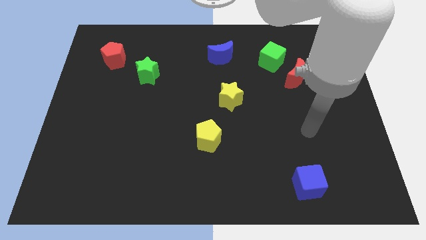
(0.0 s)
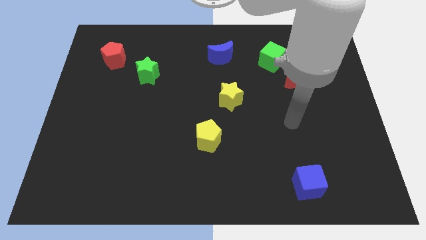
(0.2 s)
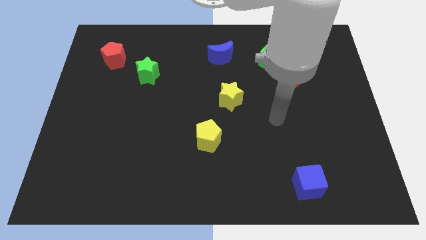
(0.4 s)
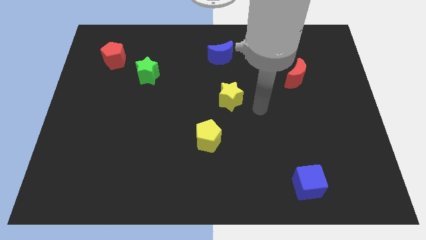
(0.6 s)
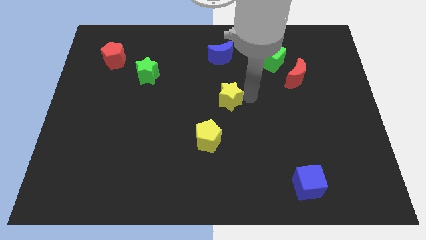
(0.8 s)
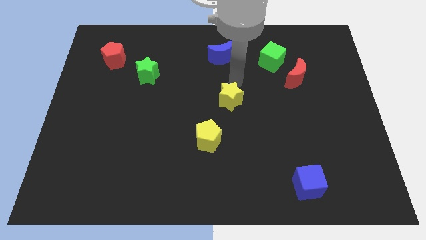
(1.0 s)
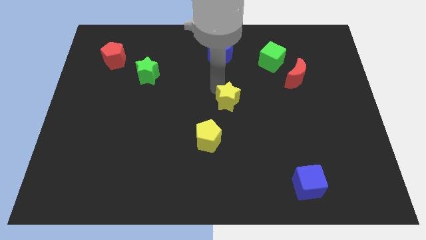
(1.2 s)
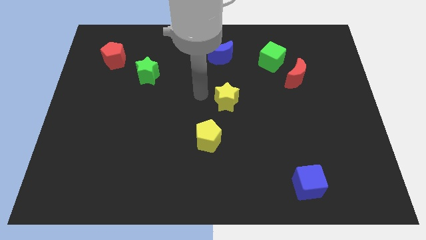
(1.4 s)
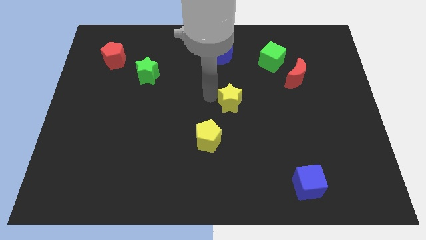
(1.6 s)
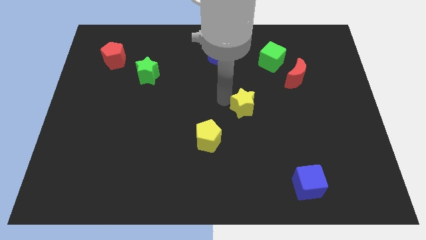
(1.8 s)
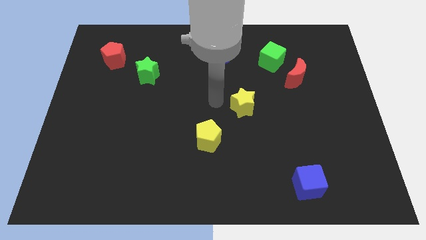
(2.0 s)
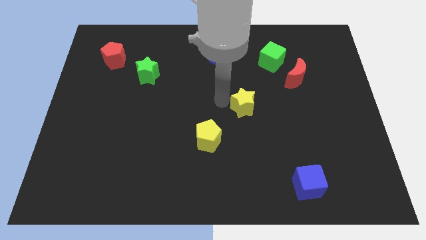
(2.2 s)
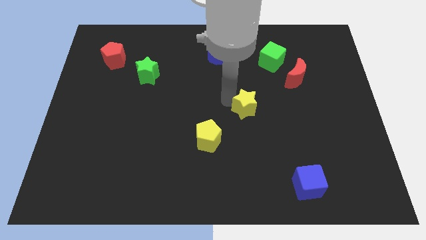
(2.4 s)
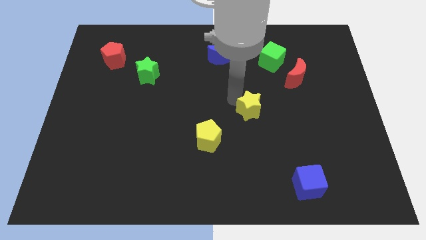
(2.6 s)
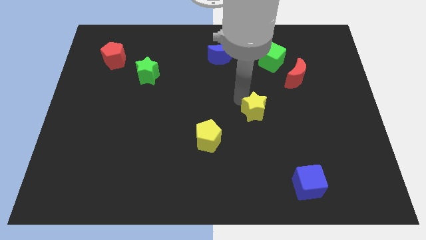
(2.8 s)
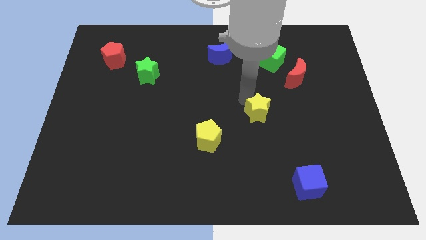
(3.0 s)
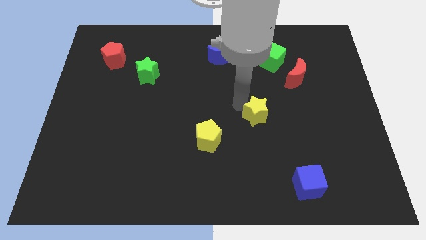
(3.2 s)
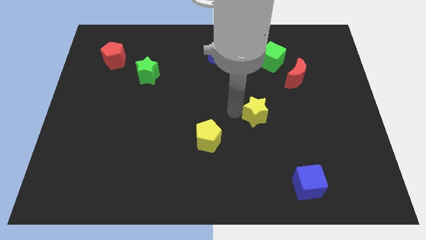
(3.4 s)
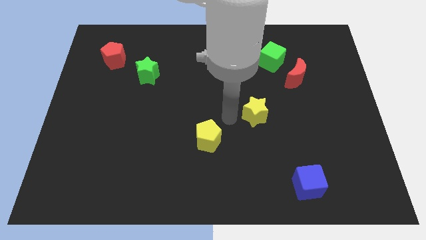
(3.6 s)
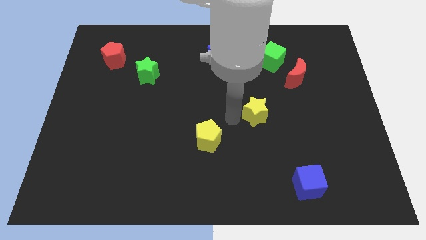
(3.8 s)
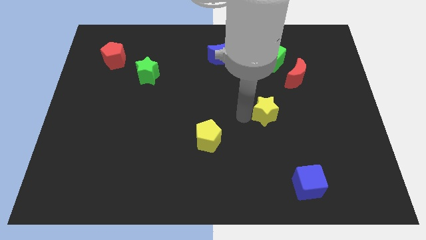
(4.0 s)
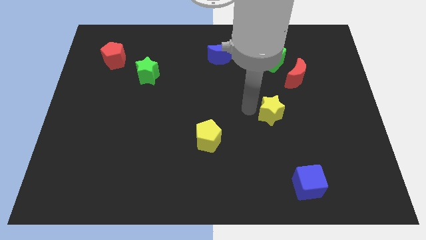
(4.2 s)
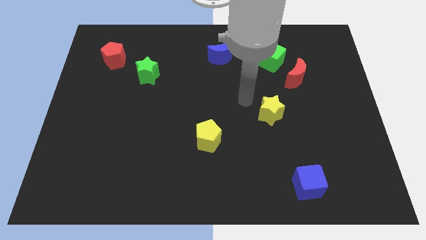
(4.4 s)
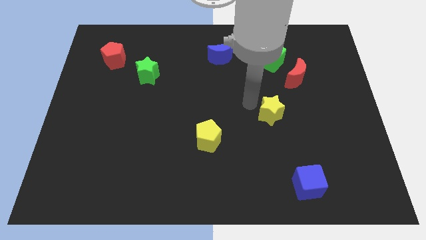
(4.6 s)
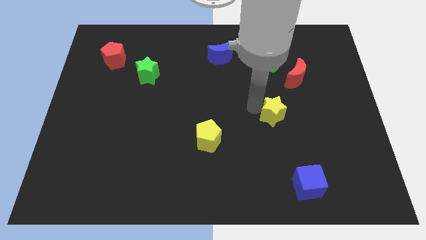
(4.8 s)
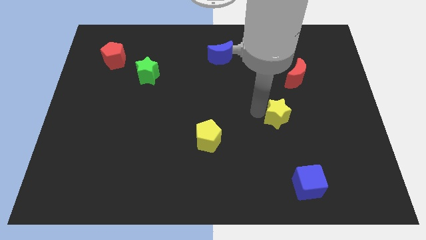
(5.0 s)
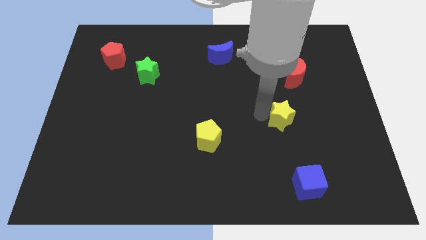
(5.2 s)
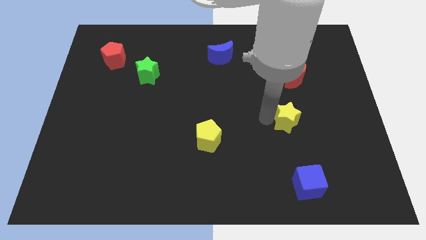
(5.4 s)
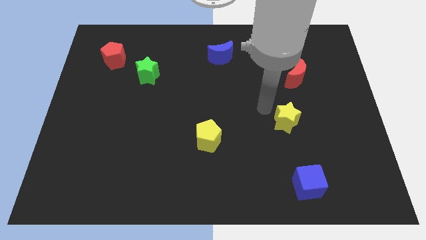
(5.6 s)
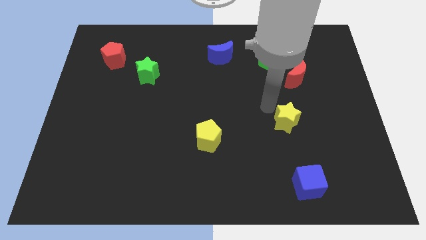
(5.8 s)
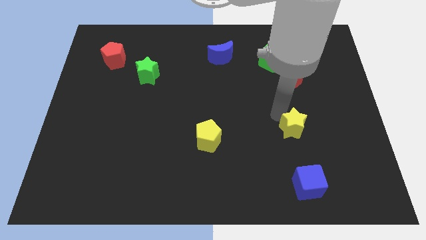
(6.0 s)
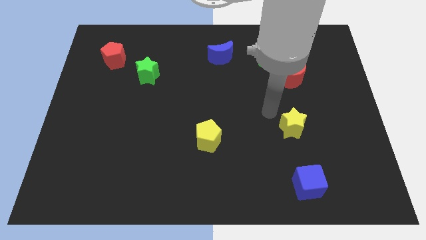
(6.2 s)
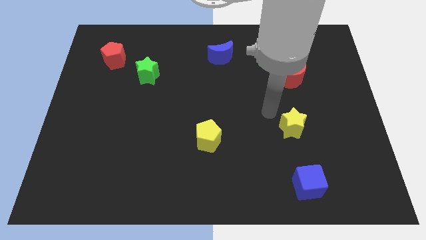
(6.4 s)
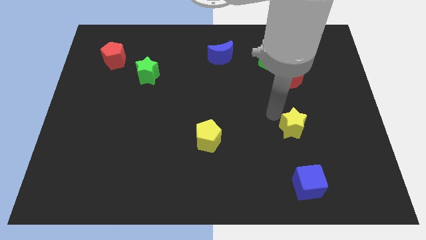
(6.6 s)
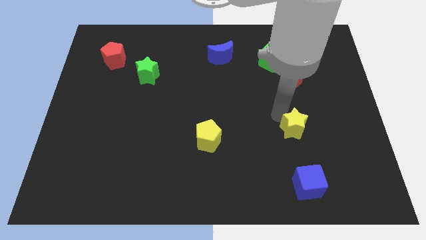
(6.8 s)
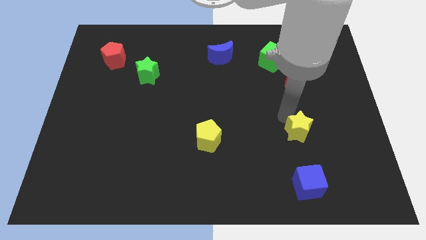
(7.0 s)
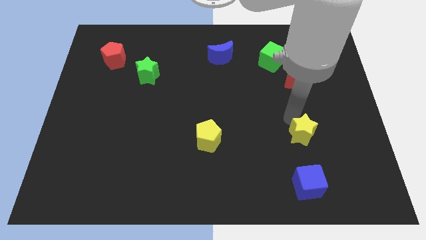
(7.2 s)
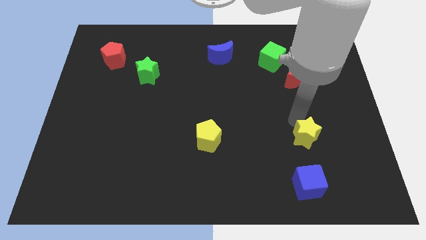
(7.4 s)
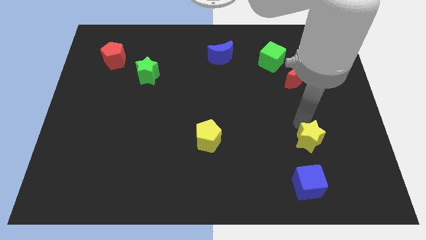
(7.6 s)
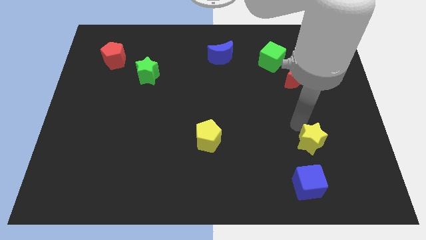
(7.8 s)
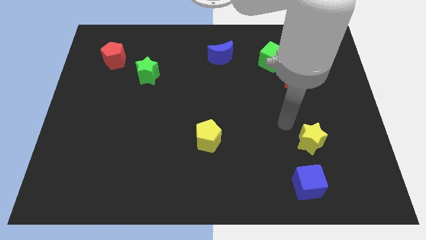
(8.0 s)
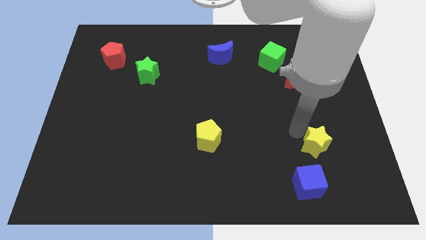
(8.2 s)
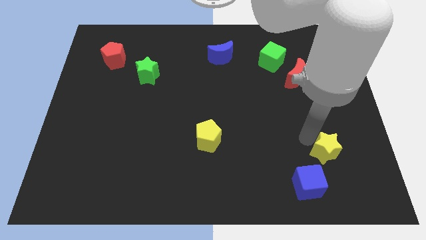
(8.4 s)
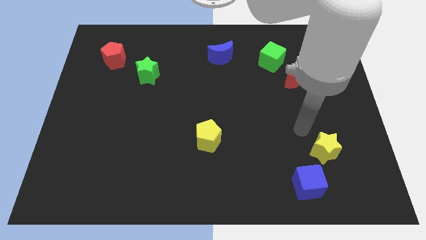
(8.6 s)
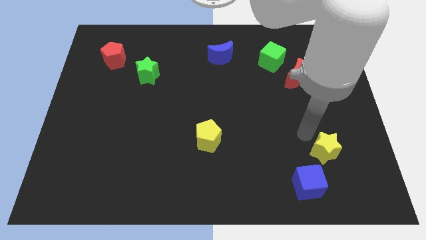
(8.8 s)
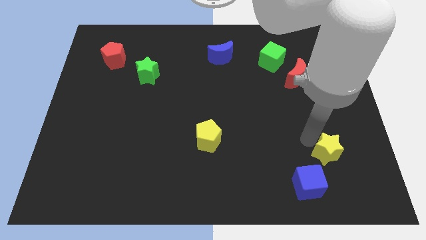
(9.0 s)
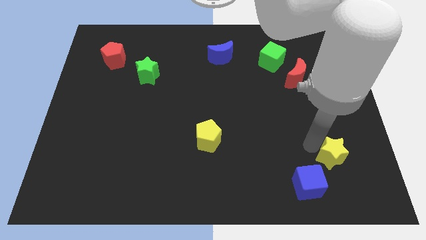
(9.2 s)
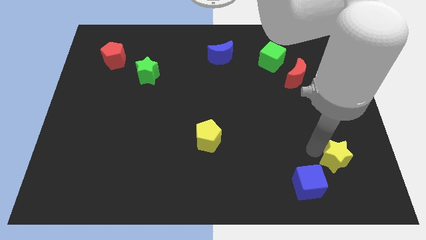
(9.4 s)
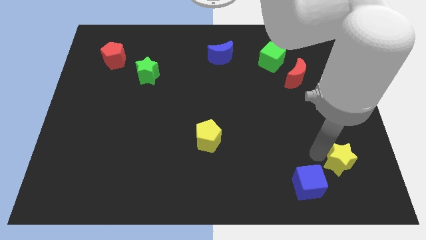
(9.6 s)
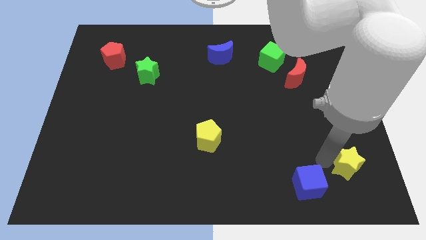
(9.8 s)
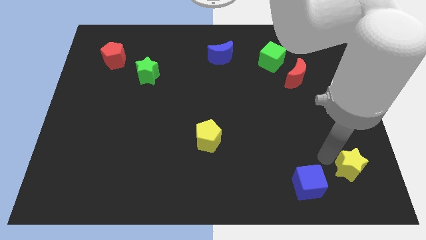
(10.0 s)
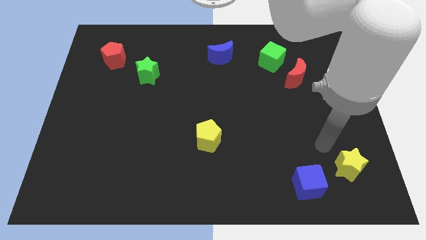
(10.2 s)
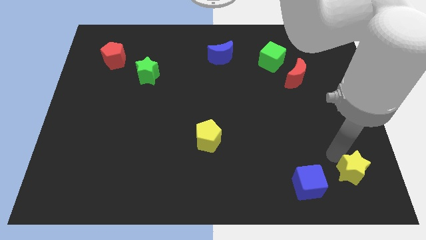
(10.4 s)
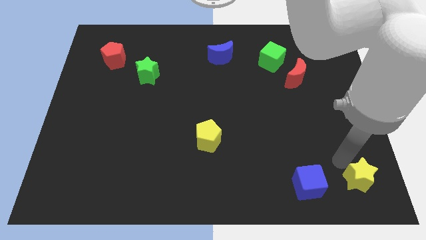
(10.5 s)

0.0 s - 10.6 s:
put the yellow star to the bottom right corner

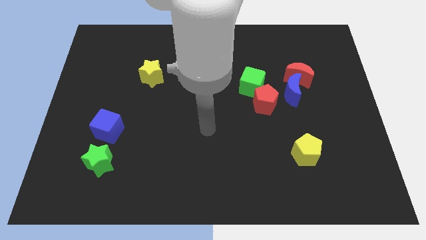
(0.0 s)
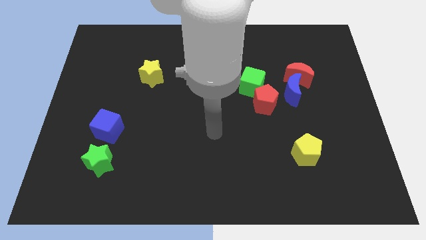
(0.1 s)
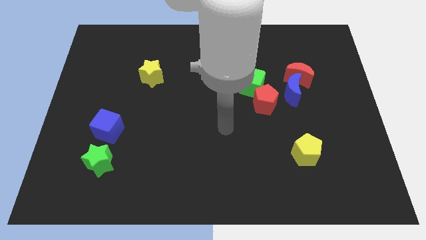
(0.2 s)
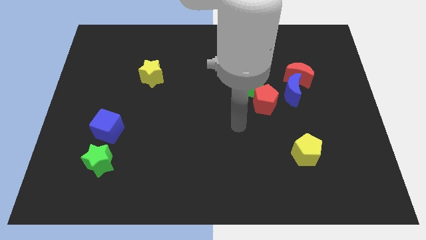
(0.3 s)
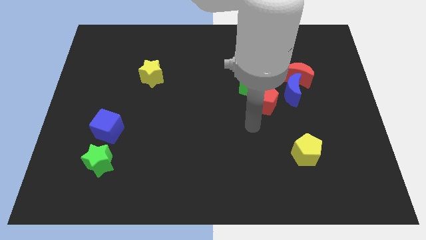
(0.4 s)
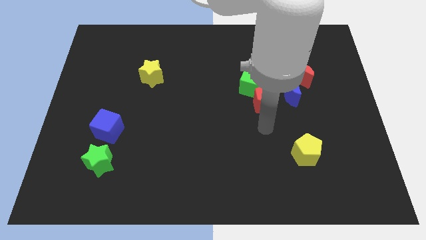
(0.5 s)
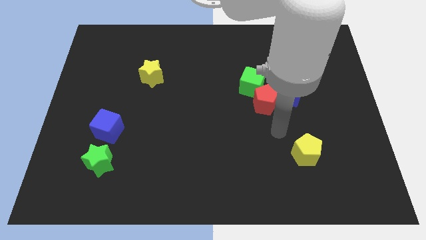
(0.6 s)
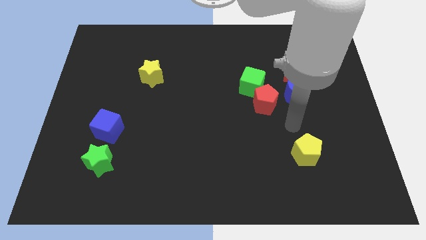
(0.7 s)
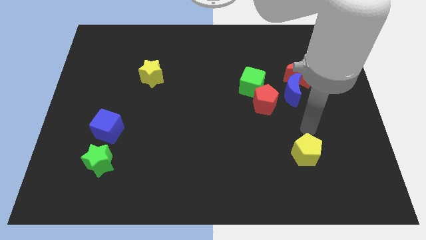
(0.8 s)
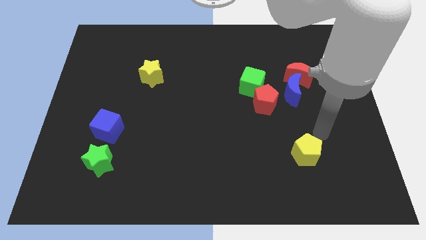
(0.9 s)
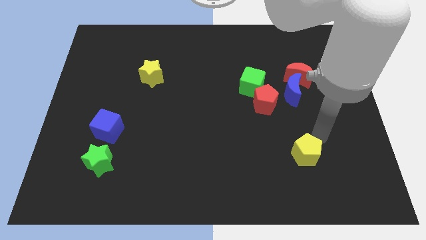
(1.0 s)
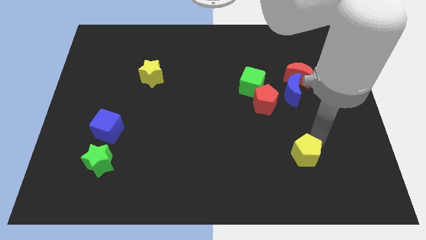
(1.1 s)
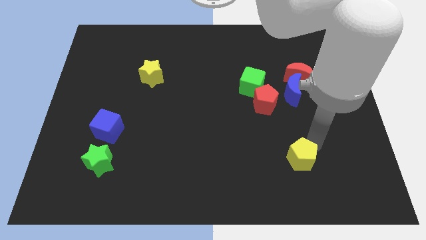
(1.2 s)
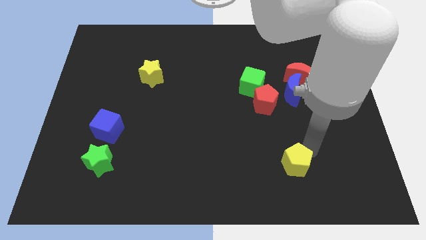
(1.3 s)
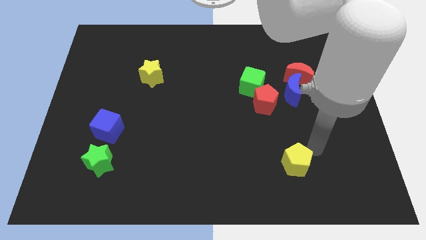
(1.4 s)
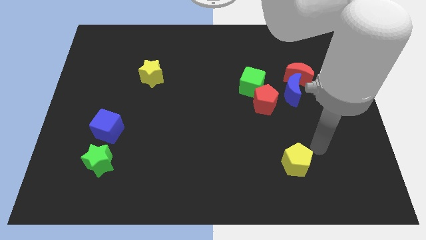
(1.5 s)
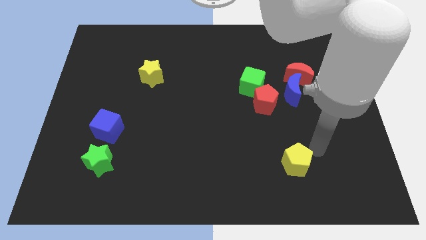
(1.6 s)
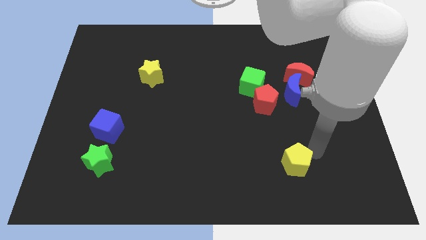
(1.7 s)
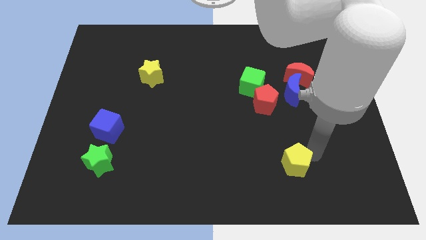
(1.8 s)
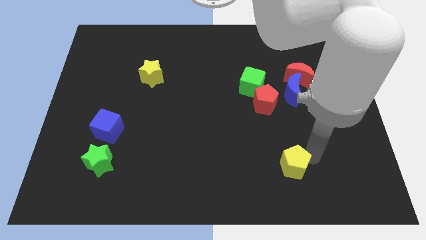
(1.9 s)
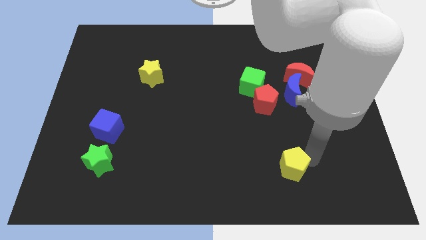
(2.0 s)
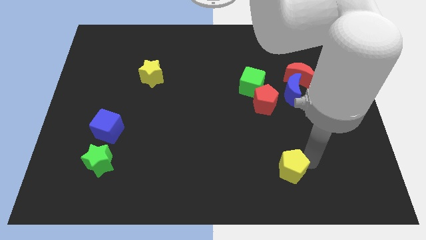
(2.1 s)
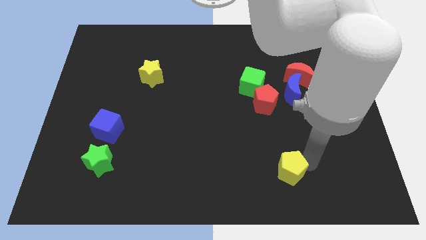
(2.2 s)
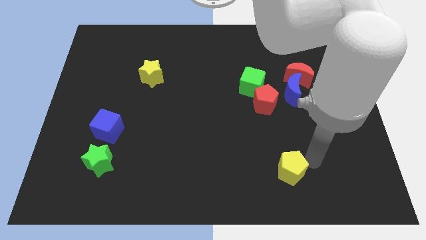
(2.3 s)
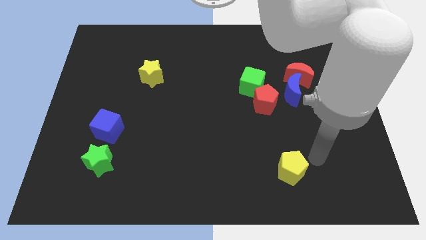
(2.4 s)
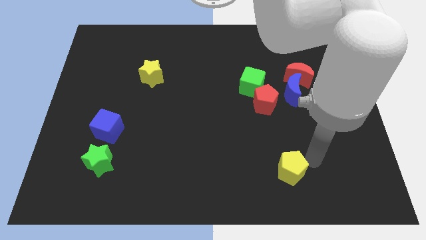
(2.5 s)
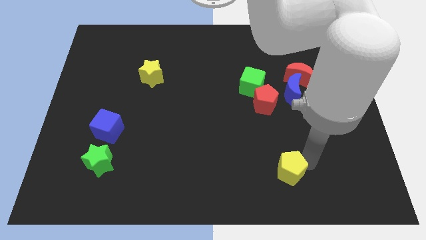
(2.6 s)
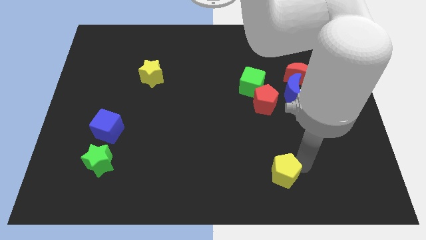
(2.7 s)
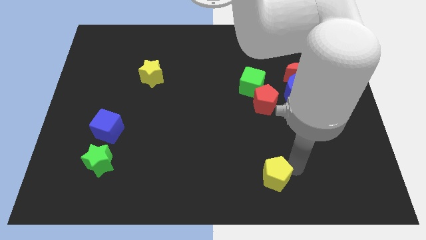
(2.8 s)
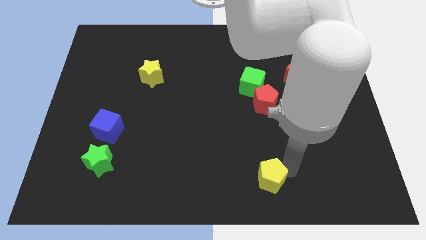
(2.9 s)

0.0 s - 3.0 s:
slide the yellow pentagon to the bottom
